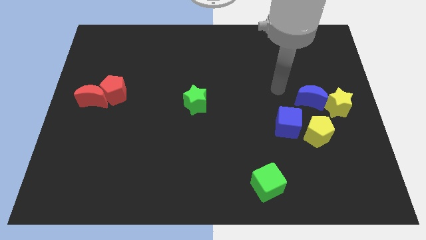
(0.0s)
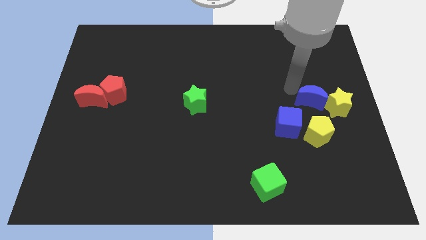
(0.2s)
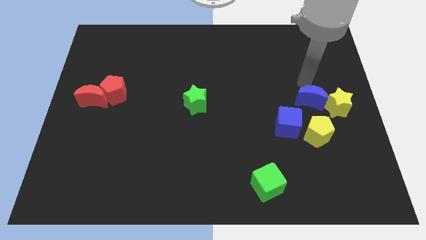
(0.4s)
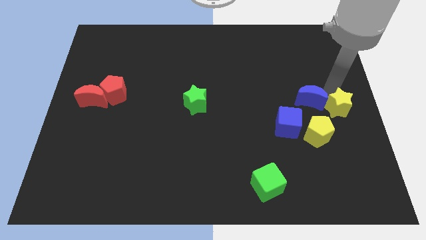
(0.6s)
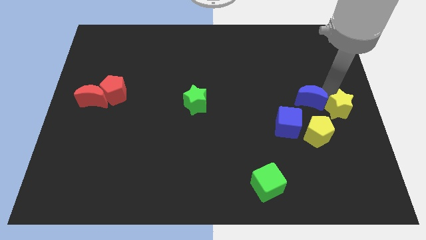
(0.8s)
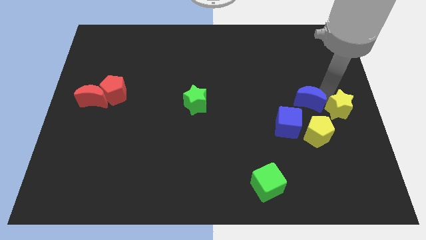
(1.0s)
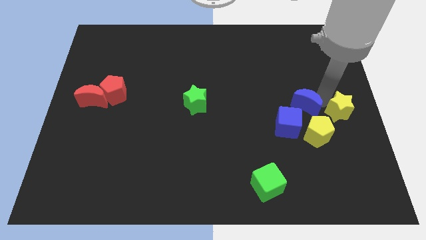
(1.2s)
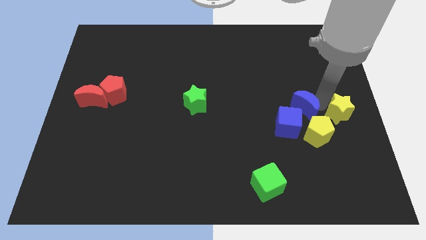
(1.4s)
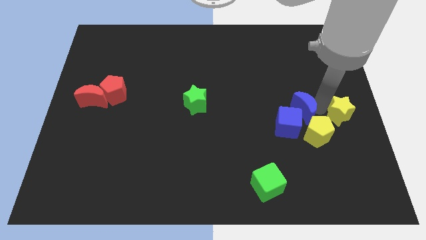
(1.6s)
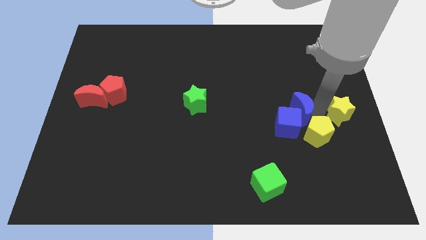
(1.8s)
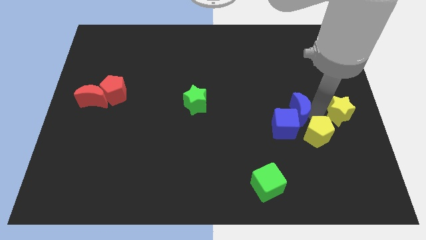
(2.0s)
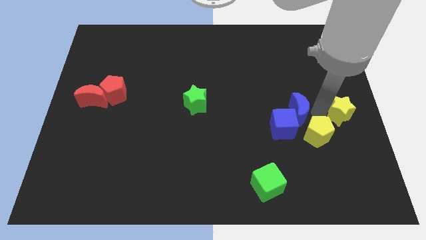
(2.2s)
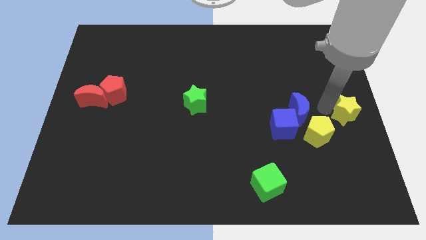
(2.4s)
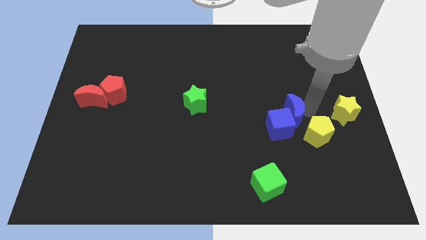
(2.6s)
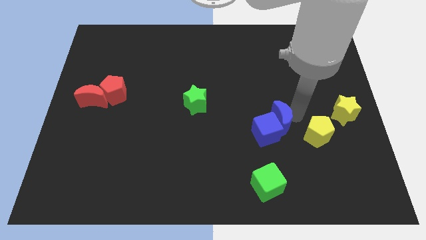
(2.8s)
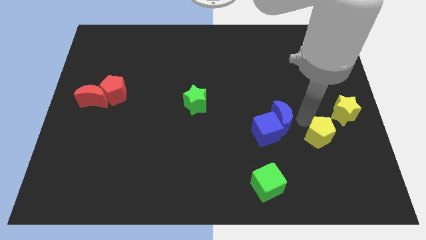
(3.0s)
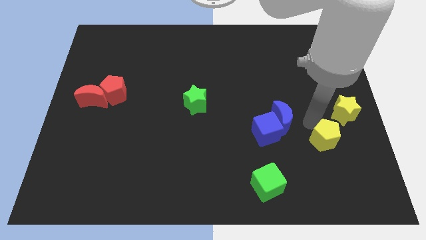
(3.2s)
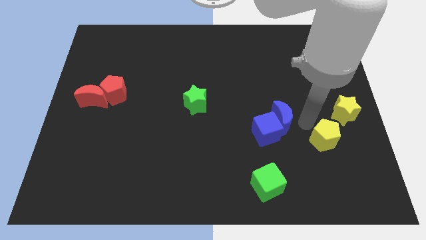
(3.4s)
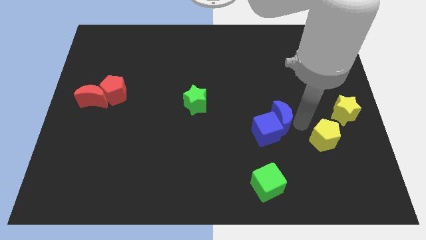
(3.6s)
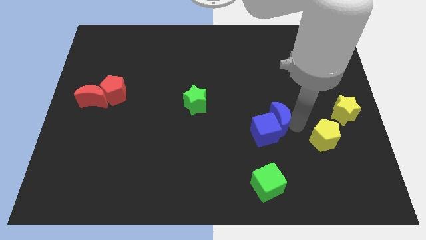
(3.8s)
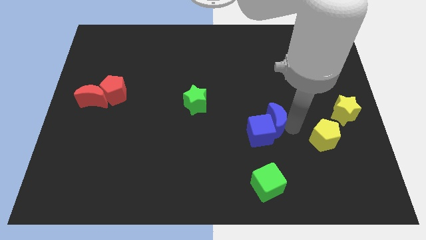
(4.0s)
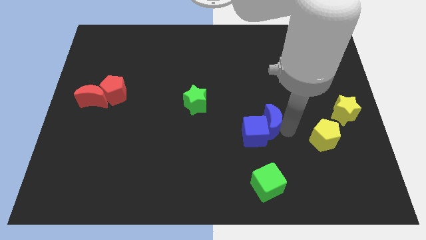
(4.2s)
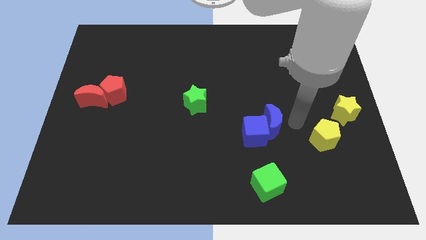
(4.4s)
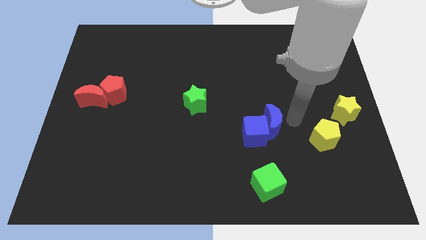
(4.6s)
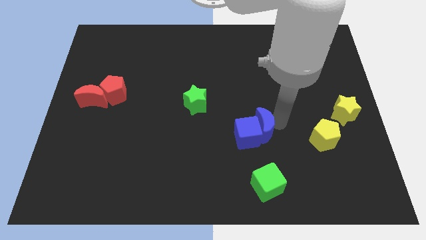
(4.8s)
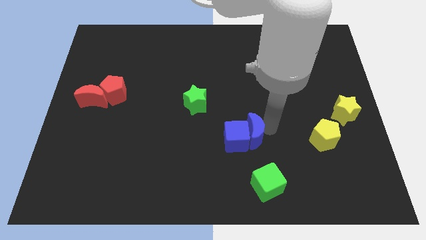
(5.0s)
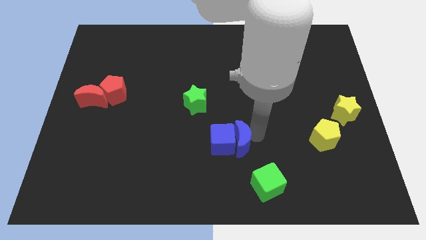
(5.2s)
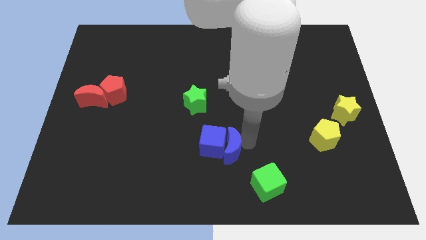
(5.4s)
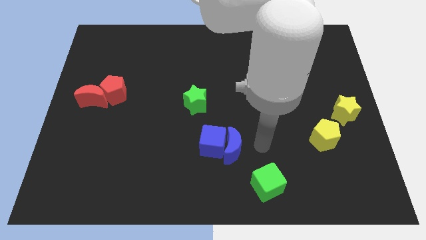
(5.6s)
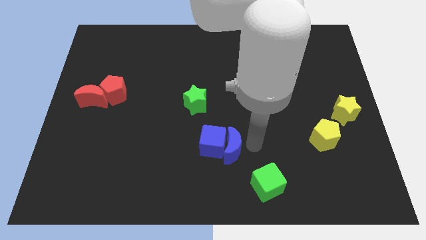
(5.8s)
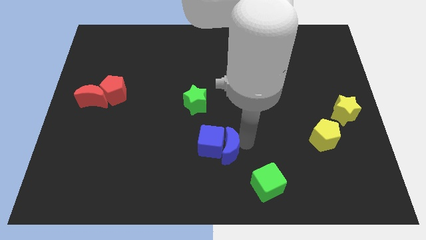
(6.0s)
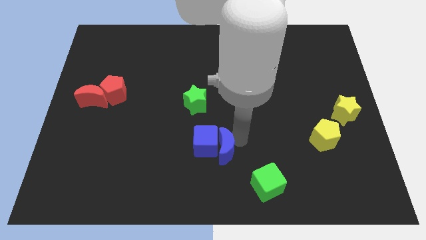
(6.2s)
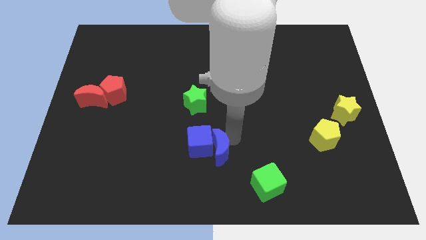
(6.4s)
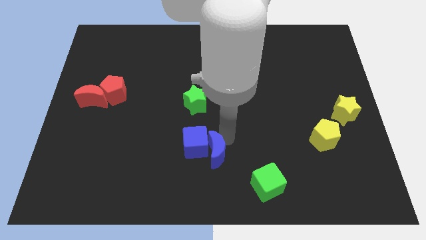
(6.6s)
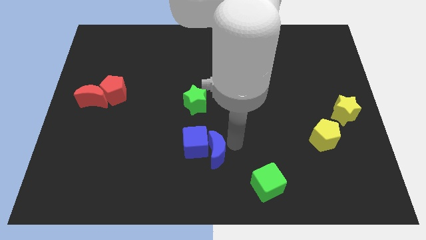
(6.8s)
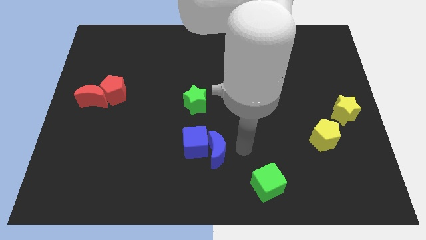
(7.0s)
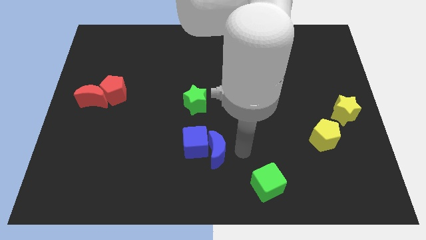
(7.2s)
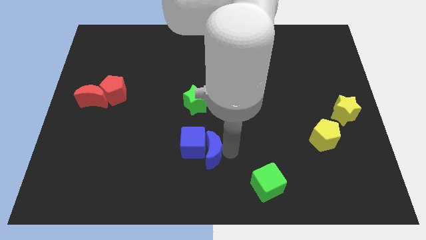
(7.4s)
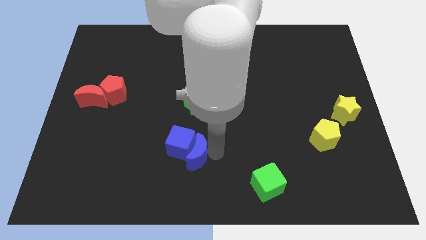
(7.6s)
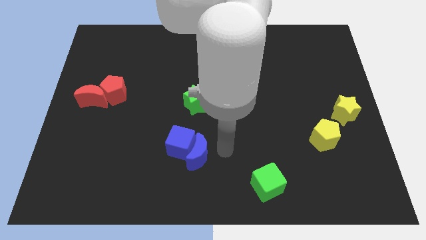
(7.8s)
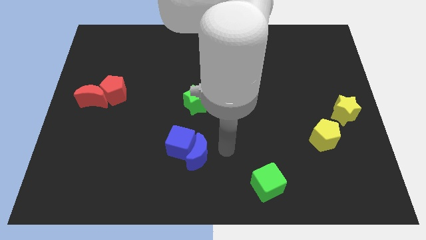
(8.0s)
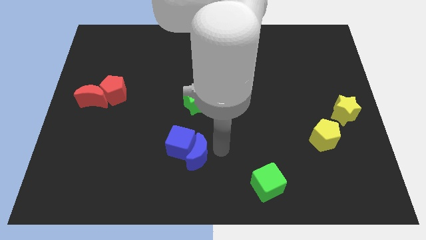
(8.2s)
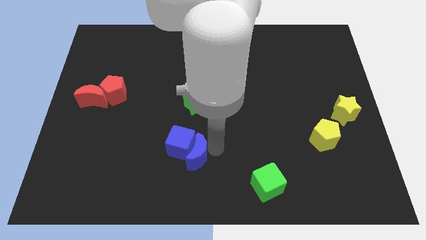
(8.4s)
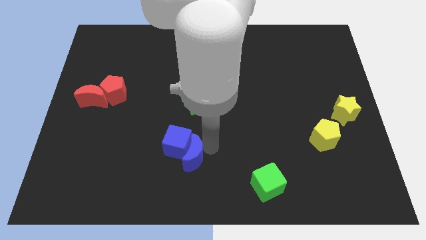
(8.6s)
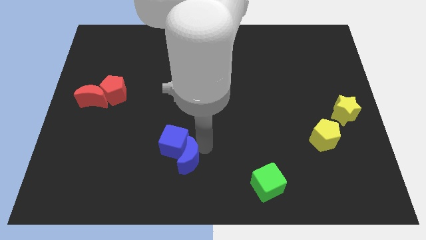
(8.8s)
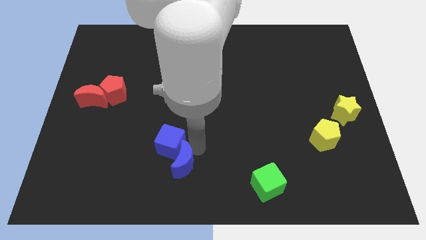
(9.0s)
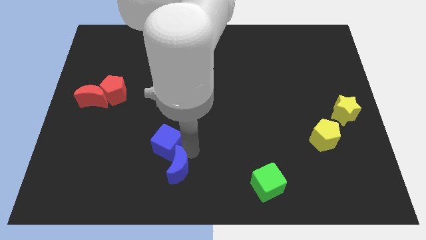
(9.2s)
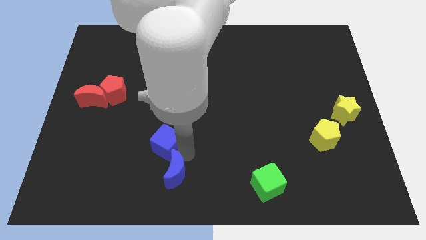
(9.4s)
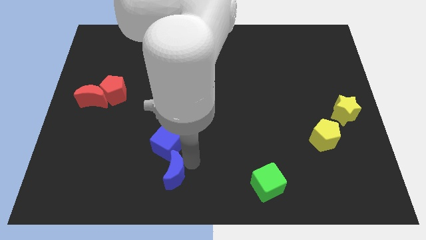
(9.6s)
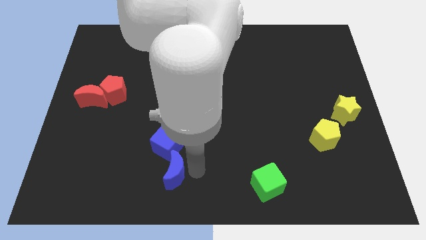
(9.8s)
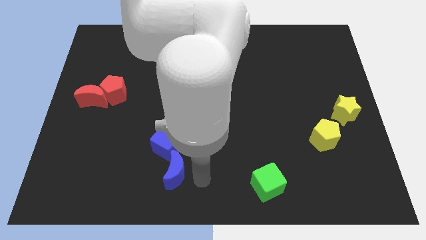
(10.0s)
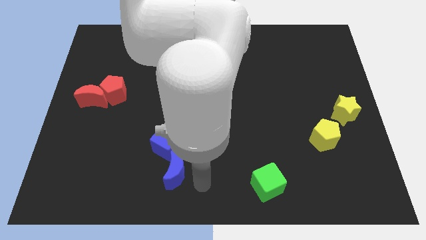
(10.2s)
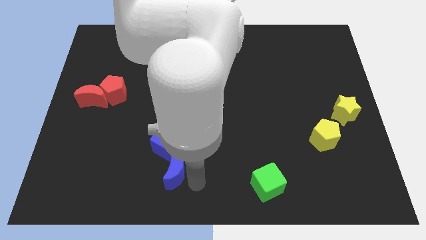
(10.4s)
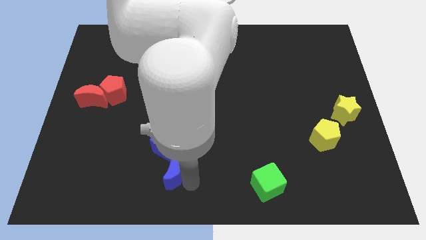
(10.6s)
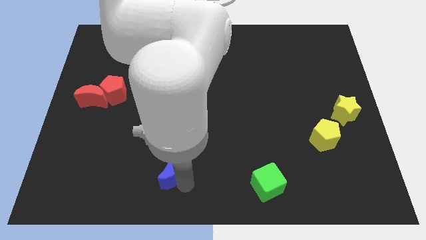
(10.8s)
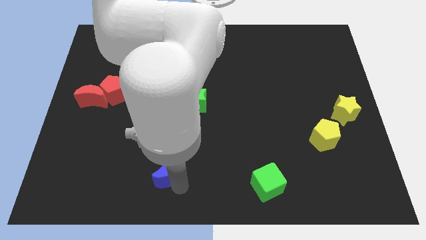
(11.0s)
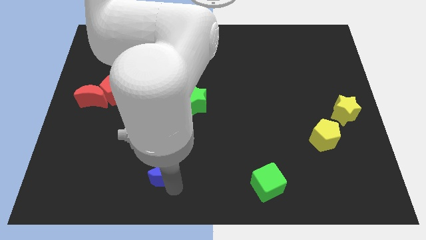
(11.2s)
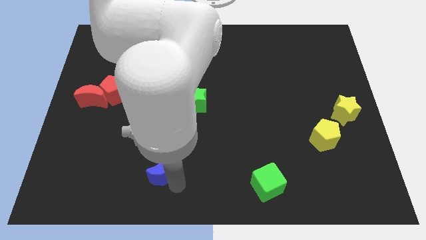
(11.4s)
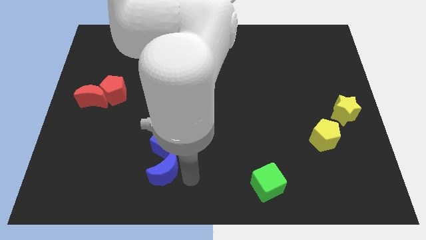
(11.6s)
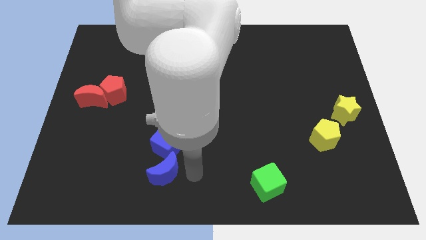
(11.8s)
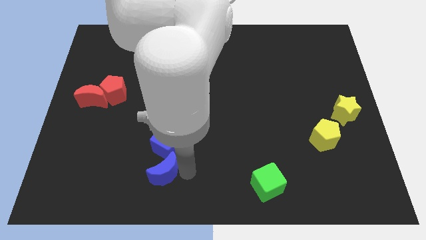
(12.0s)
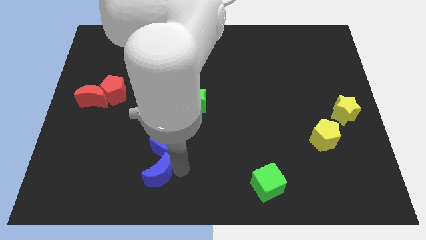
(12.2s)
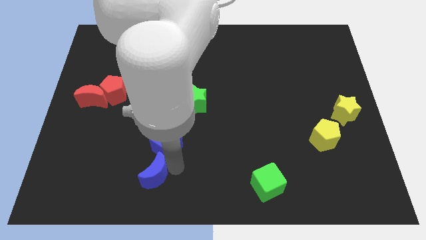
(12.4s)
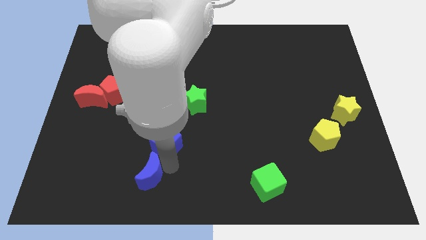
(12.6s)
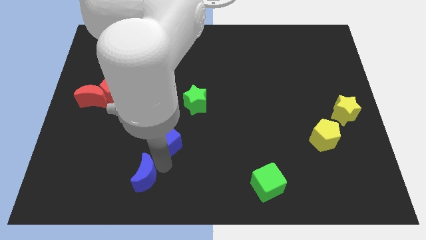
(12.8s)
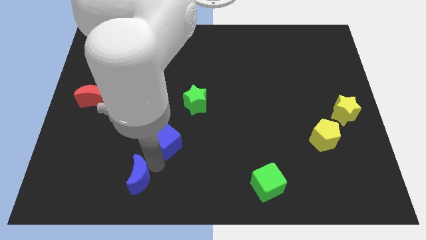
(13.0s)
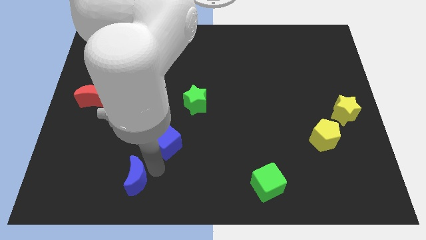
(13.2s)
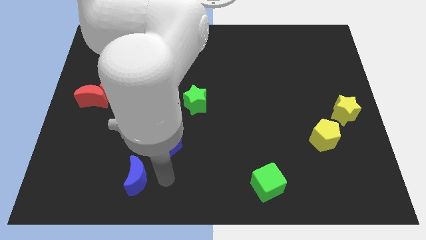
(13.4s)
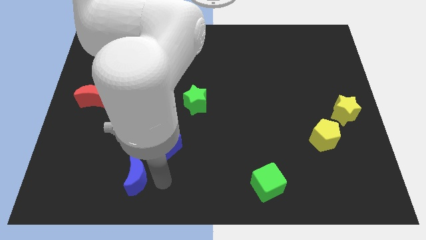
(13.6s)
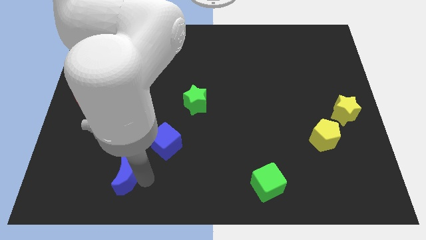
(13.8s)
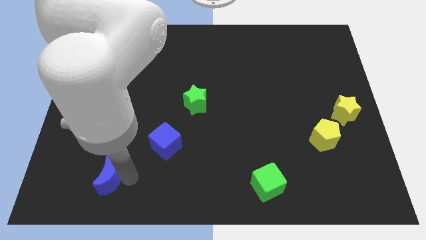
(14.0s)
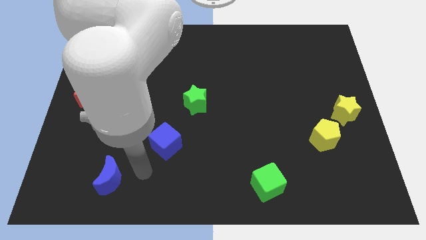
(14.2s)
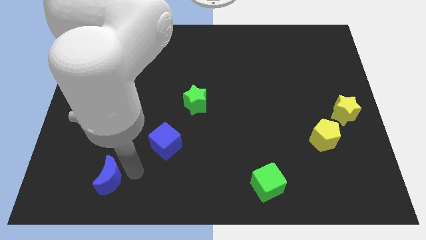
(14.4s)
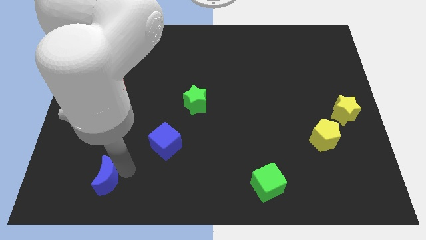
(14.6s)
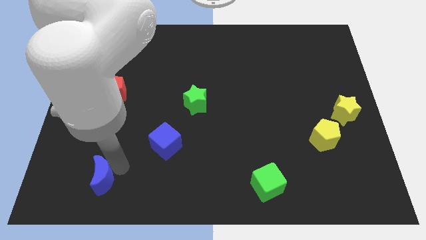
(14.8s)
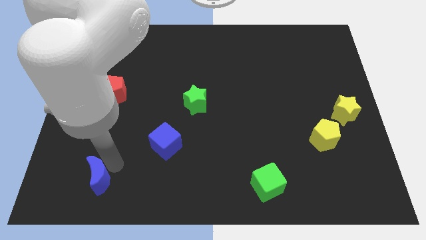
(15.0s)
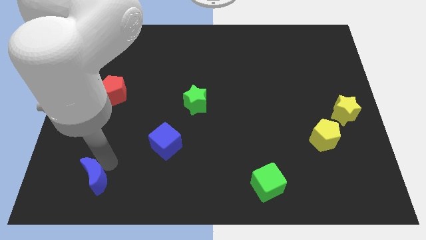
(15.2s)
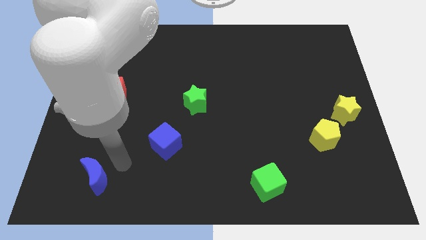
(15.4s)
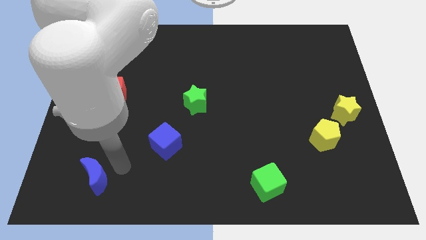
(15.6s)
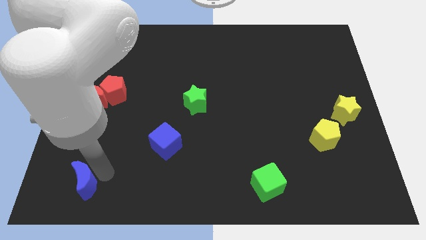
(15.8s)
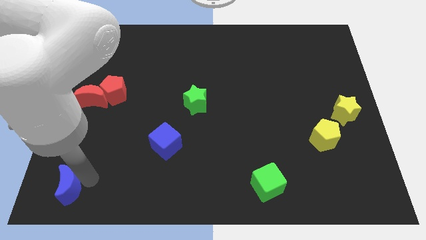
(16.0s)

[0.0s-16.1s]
push the blue moon to the bottom left of the board
